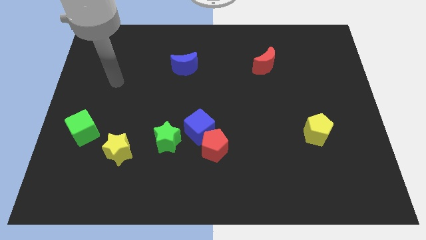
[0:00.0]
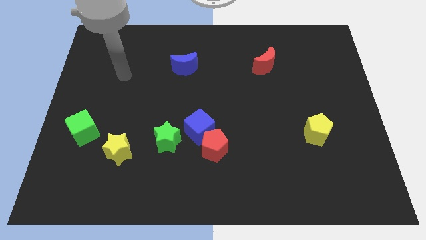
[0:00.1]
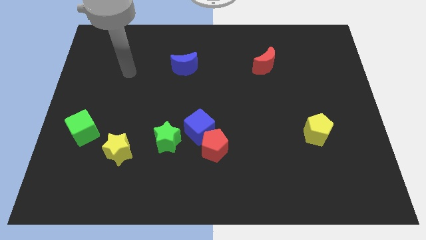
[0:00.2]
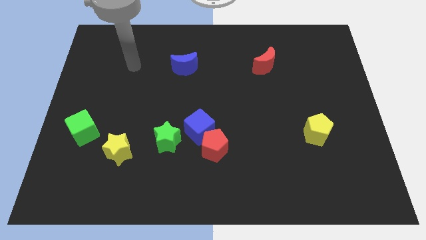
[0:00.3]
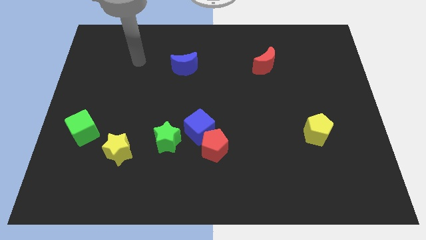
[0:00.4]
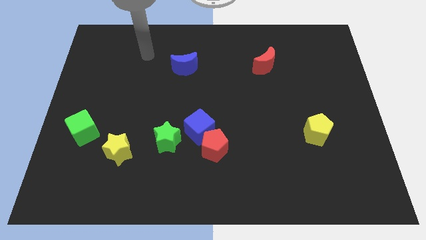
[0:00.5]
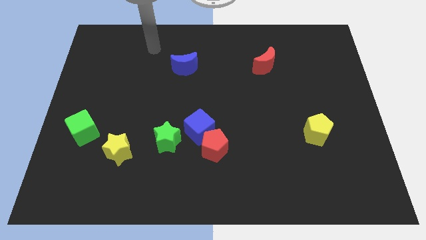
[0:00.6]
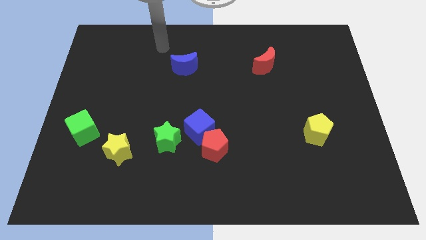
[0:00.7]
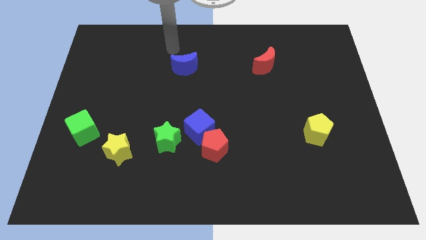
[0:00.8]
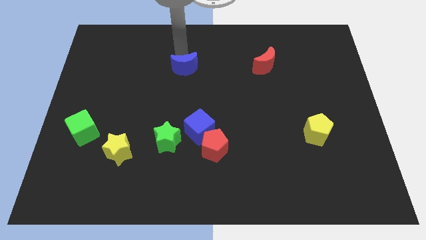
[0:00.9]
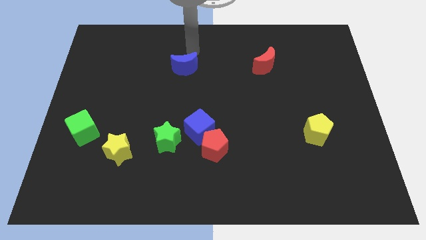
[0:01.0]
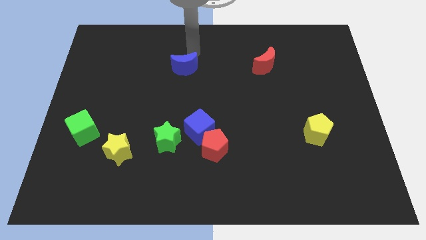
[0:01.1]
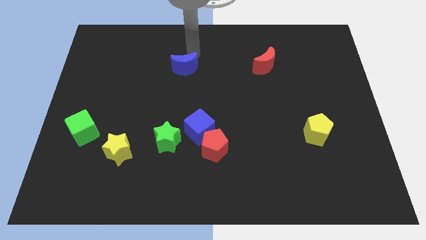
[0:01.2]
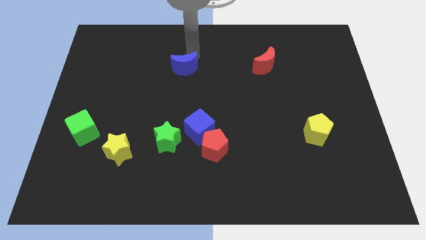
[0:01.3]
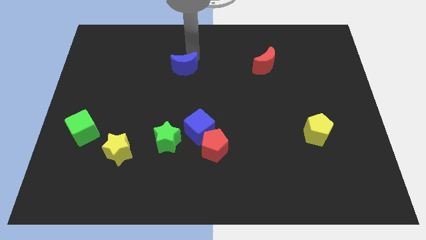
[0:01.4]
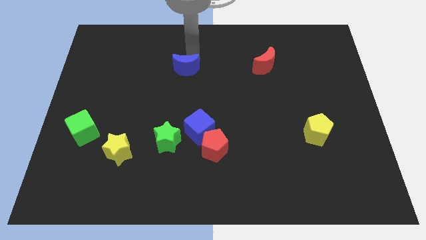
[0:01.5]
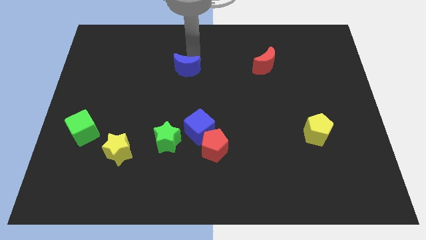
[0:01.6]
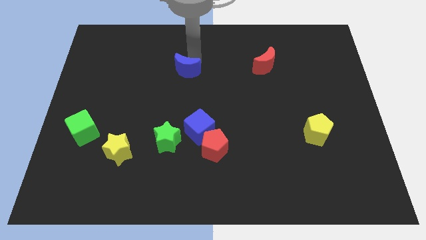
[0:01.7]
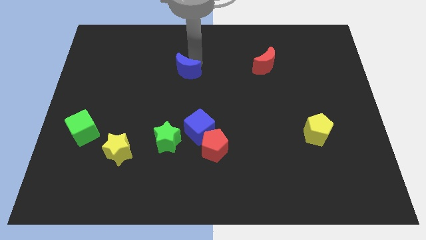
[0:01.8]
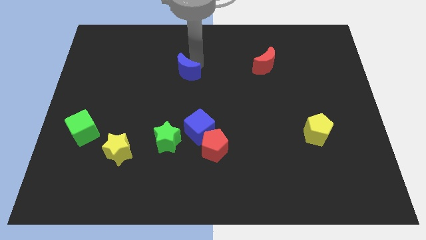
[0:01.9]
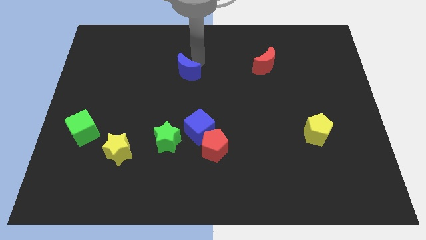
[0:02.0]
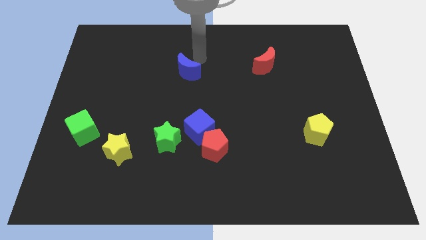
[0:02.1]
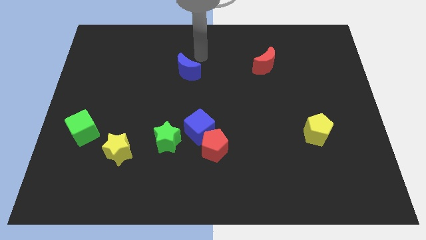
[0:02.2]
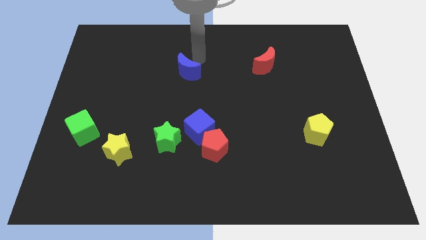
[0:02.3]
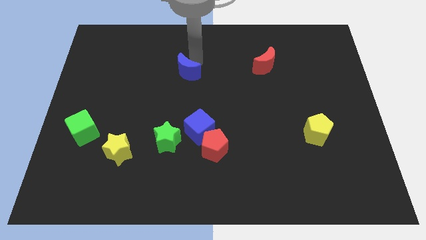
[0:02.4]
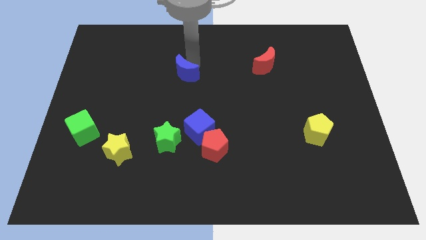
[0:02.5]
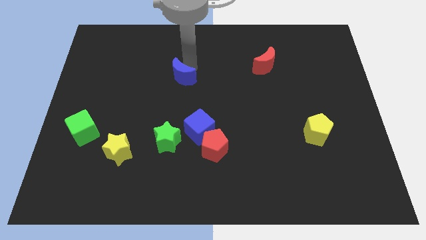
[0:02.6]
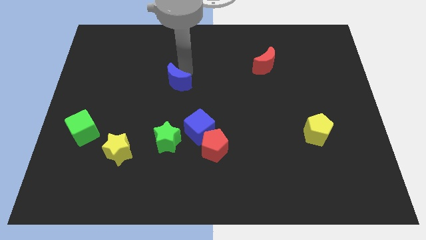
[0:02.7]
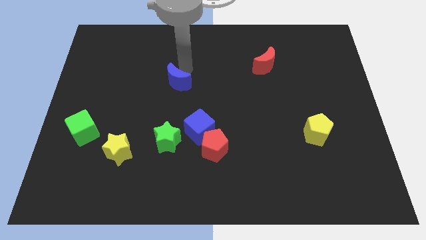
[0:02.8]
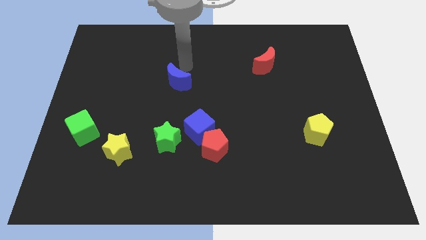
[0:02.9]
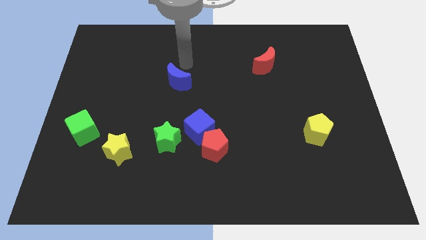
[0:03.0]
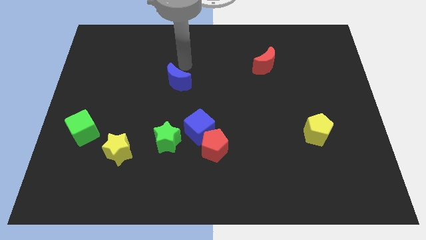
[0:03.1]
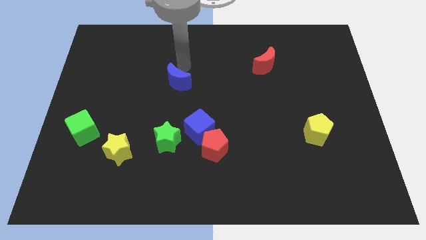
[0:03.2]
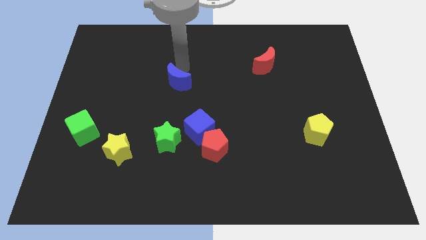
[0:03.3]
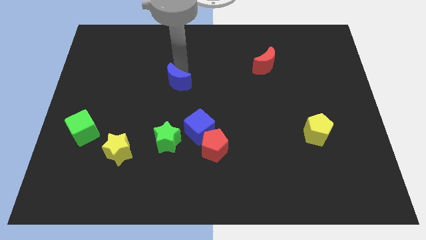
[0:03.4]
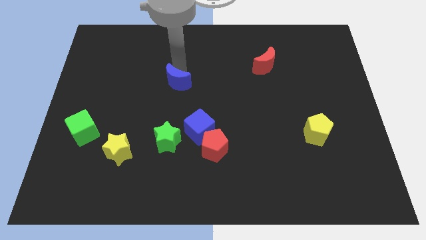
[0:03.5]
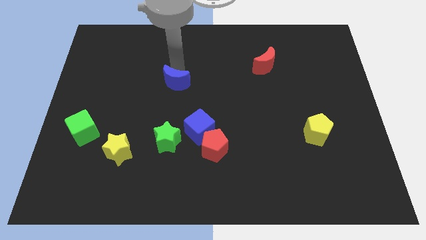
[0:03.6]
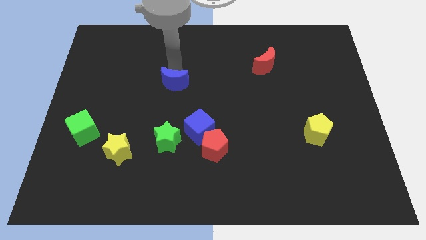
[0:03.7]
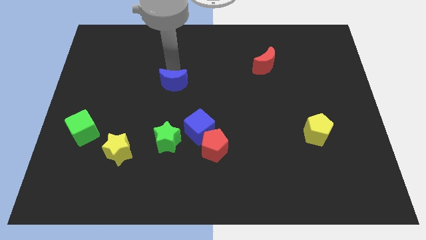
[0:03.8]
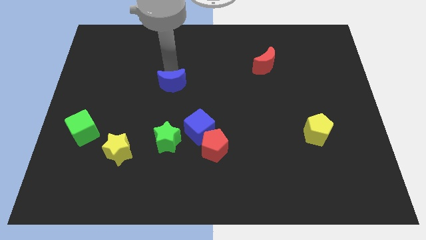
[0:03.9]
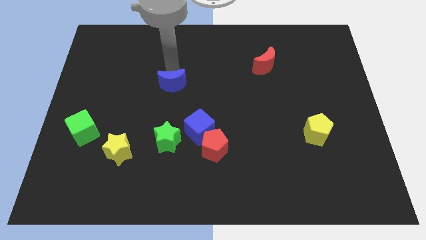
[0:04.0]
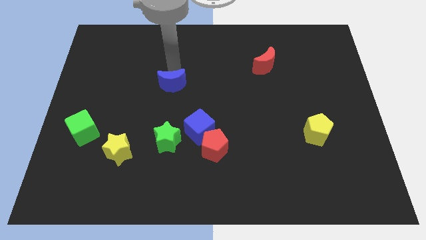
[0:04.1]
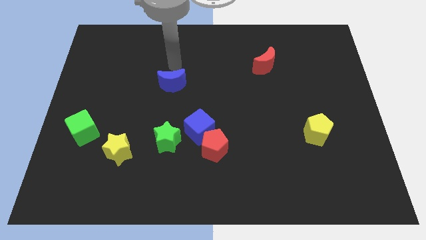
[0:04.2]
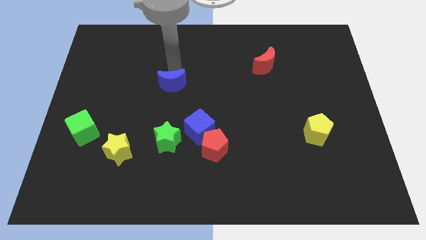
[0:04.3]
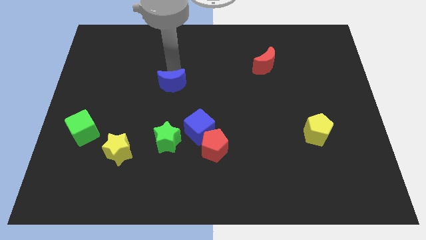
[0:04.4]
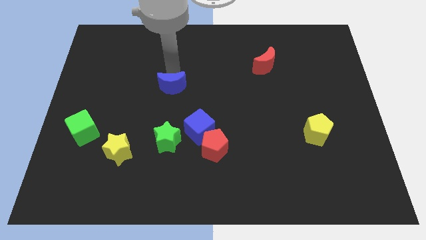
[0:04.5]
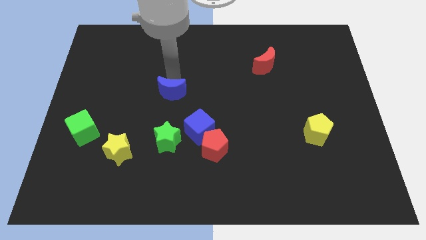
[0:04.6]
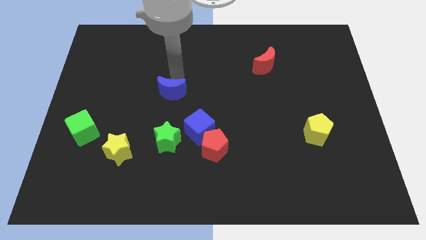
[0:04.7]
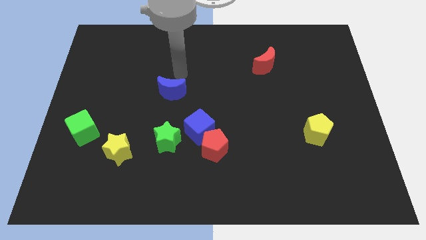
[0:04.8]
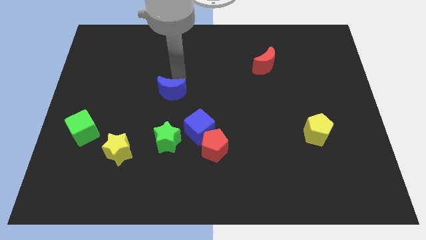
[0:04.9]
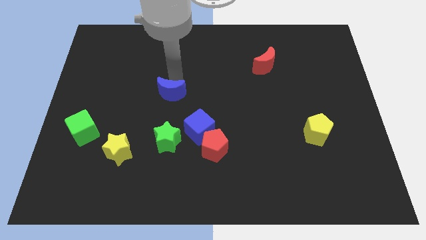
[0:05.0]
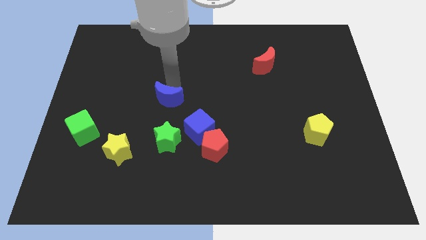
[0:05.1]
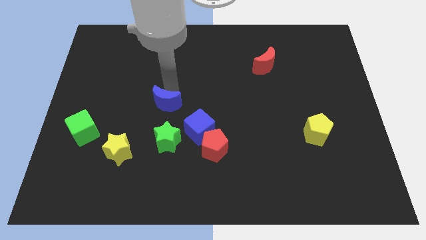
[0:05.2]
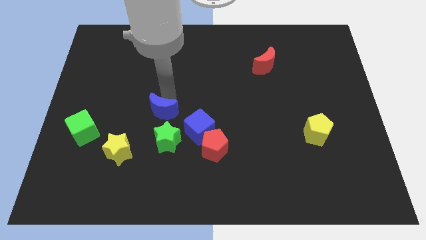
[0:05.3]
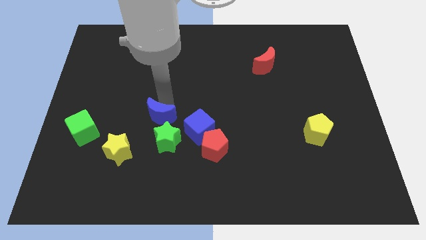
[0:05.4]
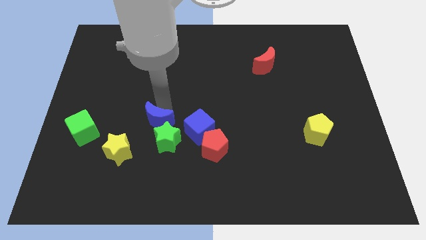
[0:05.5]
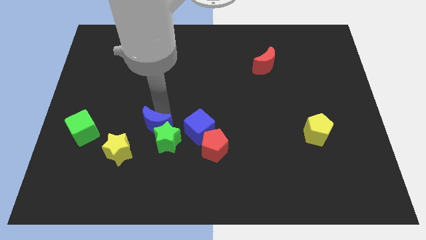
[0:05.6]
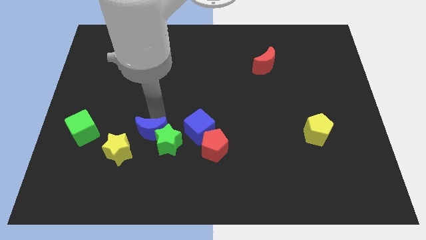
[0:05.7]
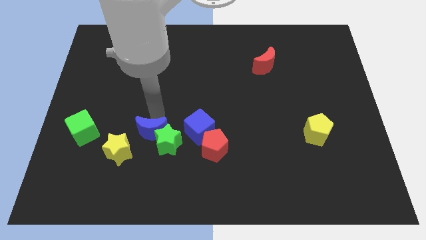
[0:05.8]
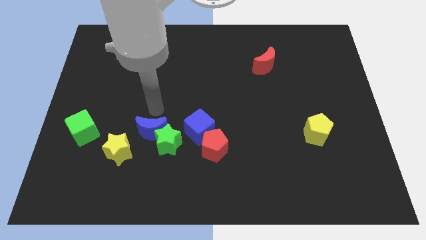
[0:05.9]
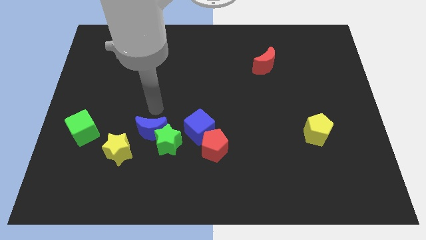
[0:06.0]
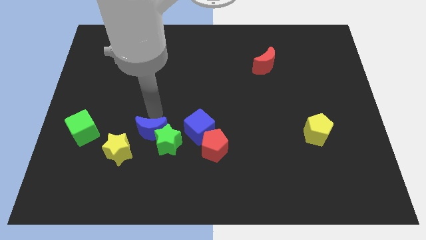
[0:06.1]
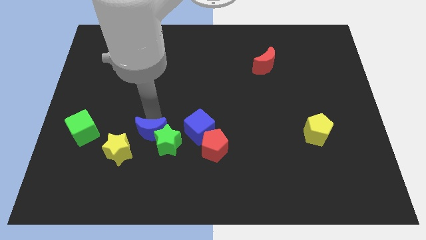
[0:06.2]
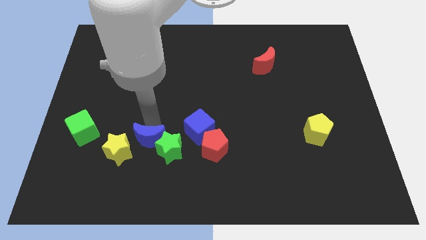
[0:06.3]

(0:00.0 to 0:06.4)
push the blue moon downwards

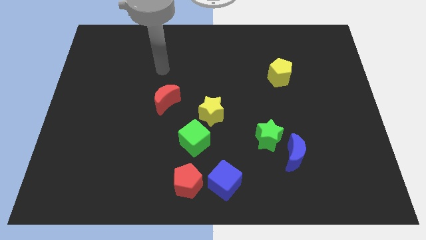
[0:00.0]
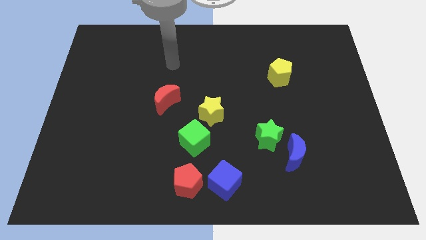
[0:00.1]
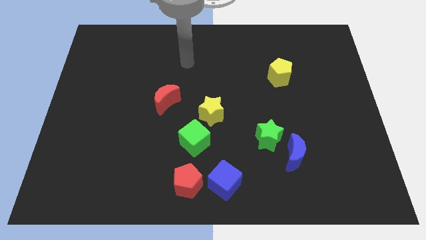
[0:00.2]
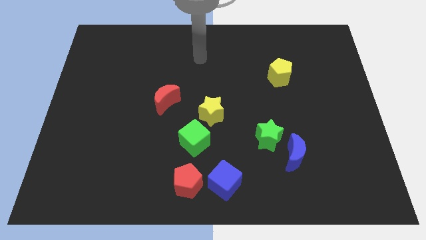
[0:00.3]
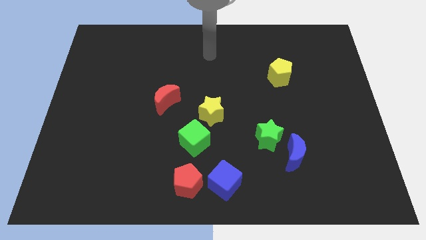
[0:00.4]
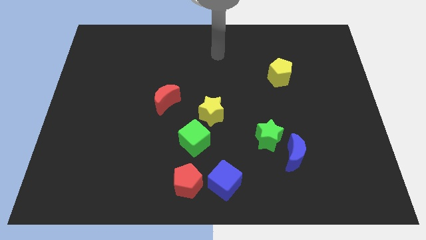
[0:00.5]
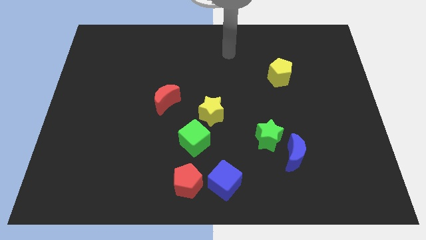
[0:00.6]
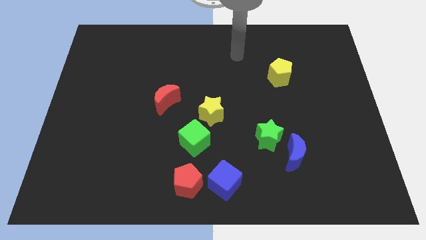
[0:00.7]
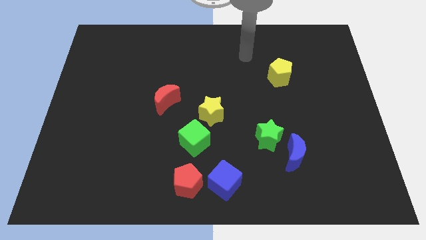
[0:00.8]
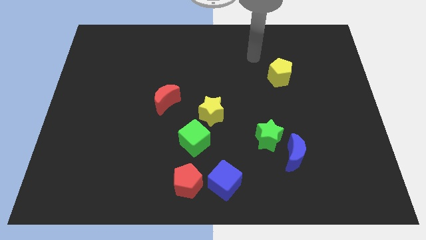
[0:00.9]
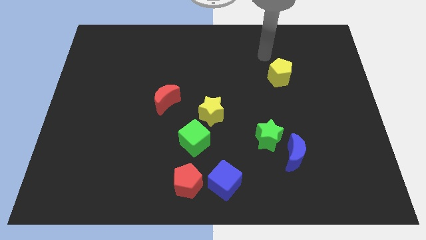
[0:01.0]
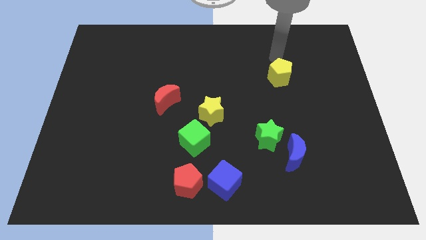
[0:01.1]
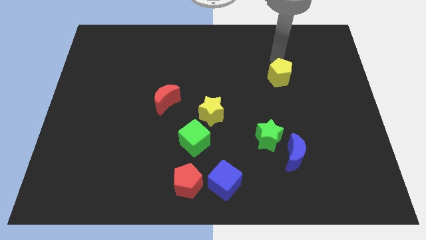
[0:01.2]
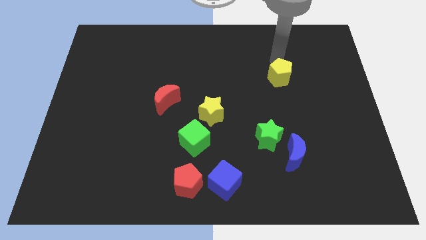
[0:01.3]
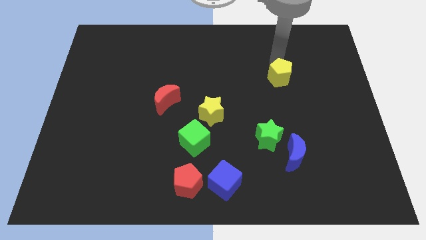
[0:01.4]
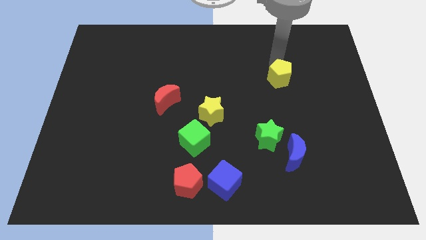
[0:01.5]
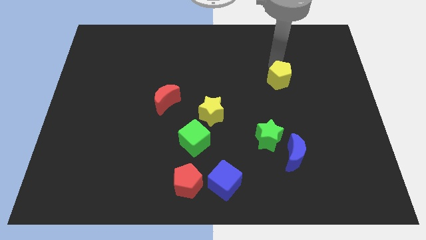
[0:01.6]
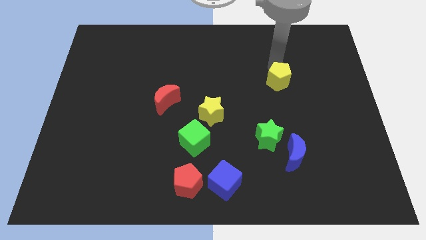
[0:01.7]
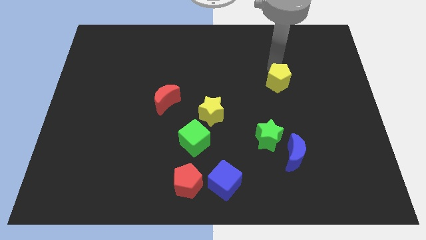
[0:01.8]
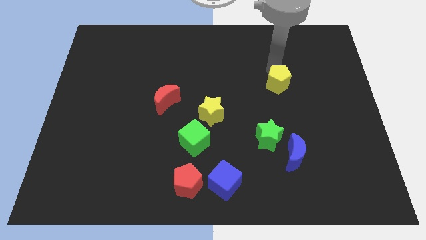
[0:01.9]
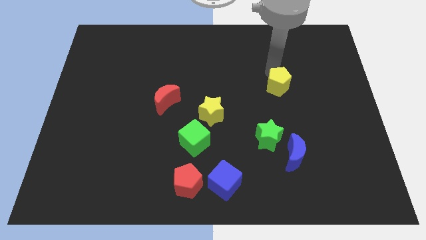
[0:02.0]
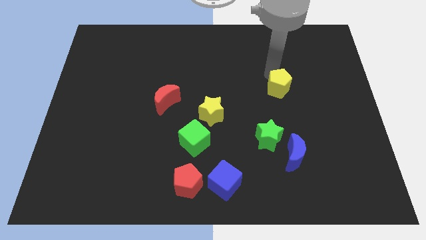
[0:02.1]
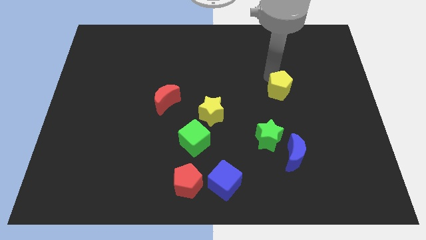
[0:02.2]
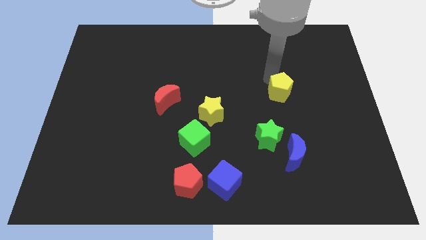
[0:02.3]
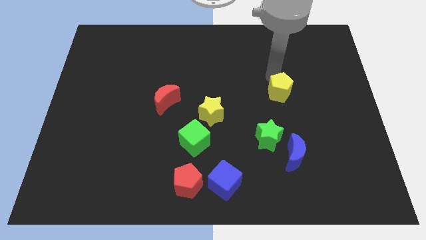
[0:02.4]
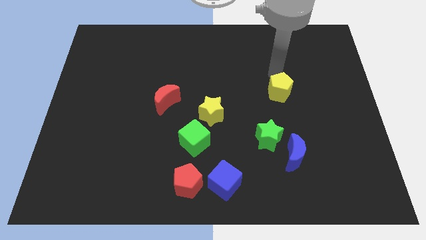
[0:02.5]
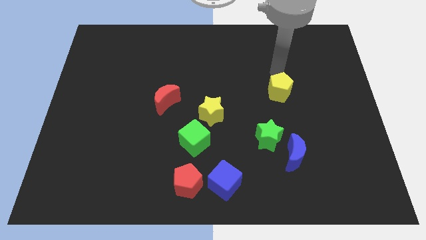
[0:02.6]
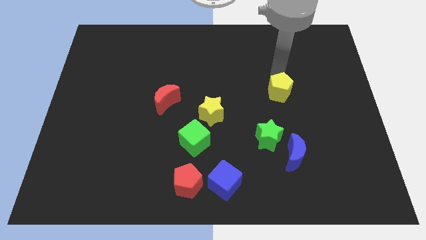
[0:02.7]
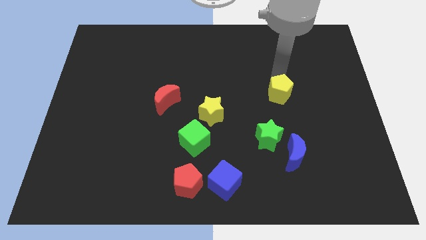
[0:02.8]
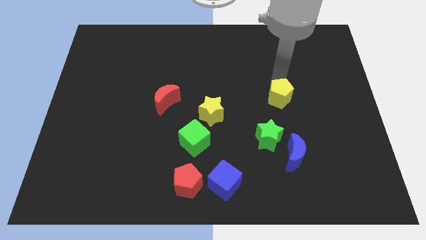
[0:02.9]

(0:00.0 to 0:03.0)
push the yellow pentagon a bit downwards
